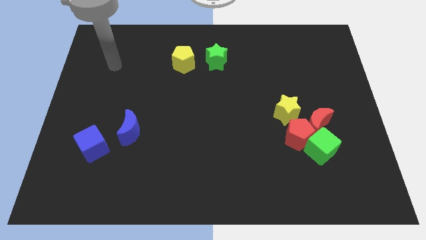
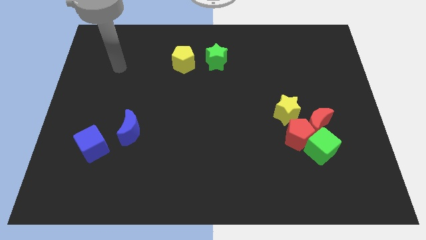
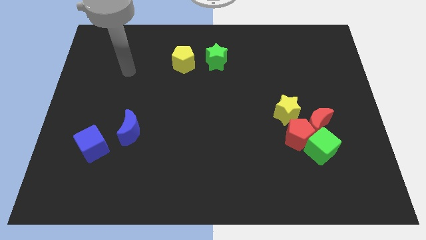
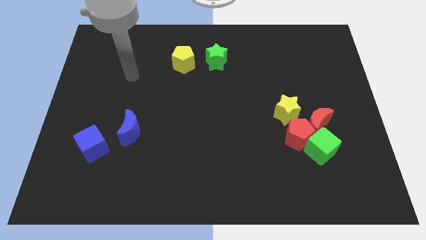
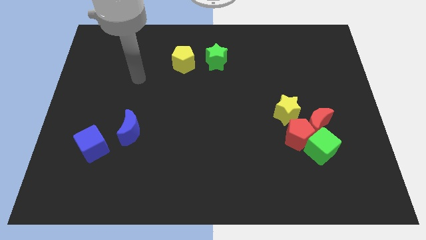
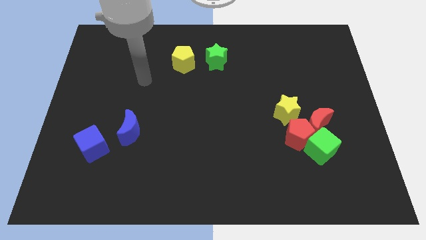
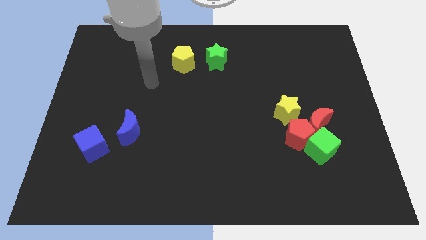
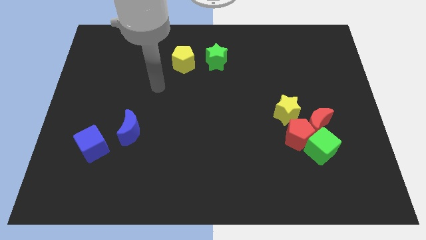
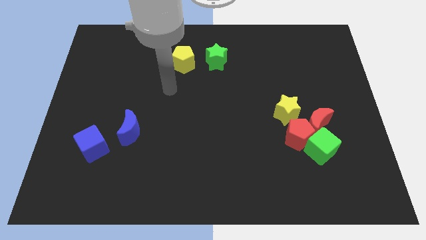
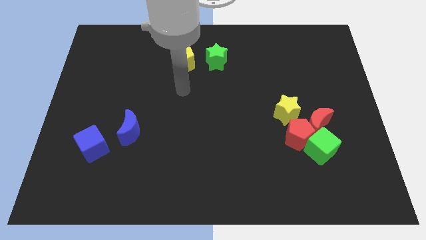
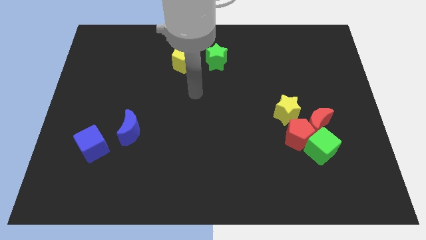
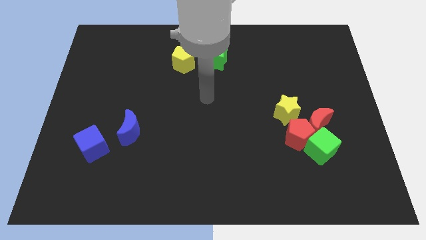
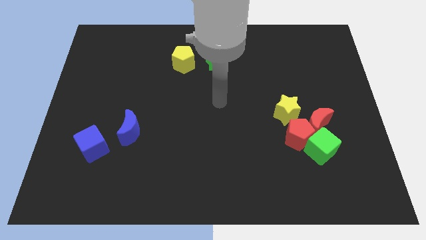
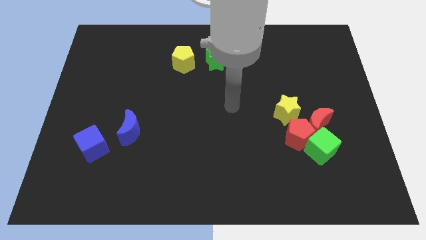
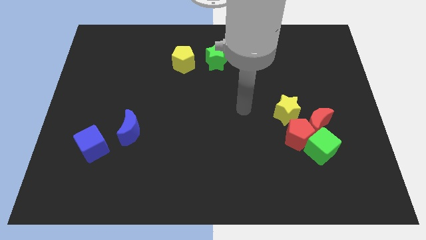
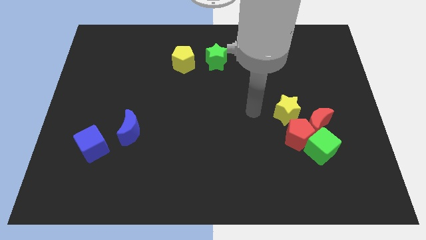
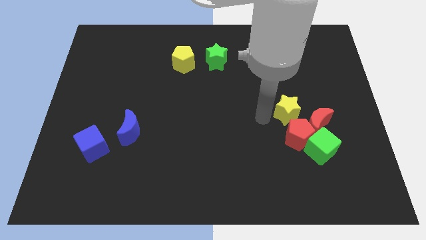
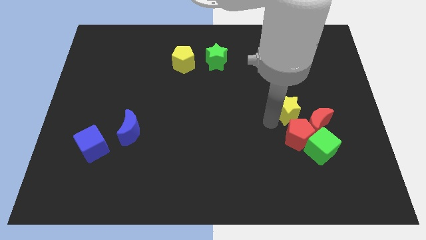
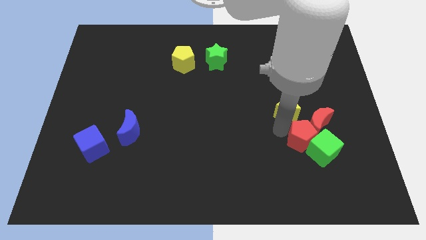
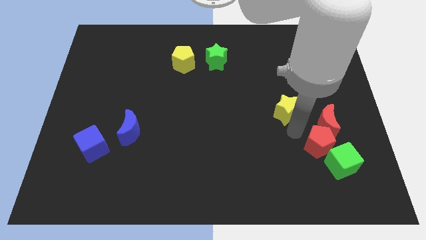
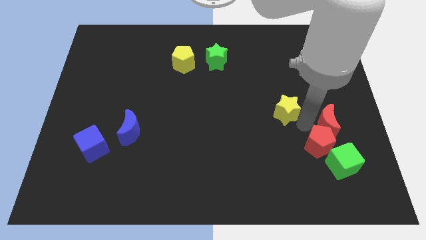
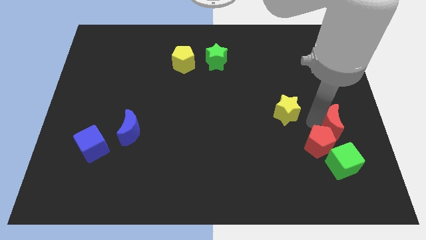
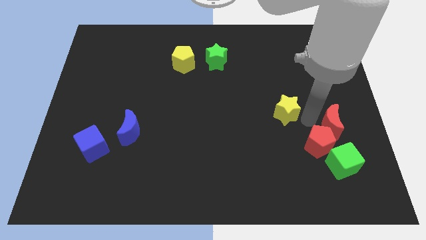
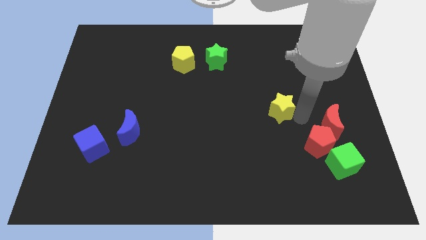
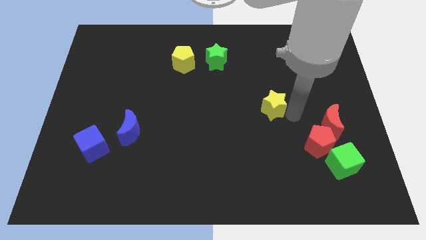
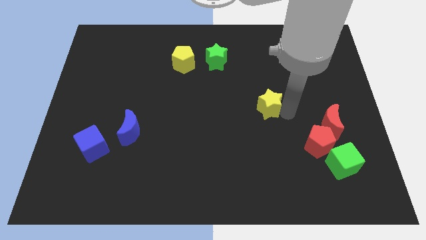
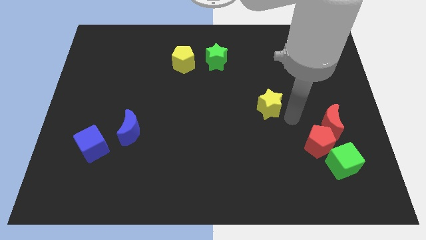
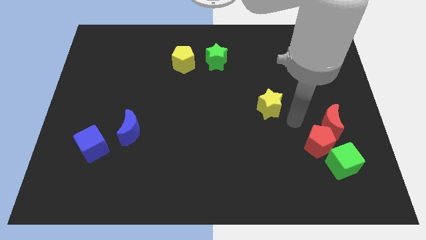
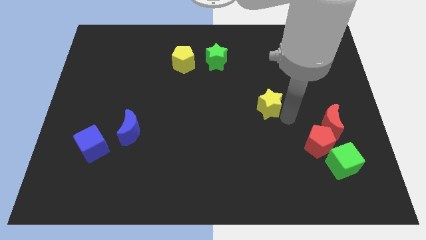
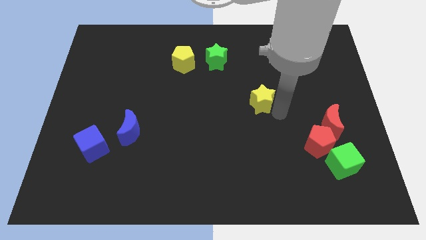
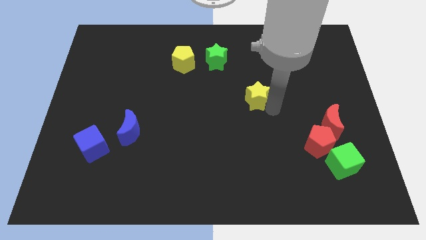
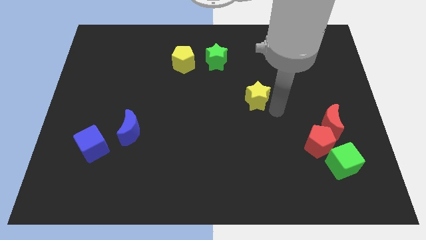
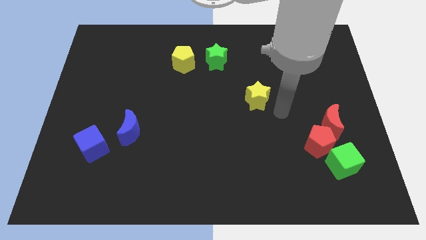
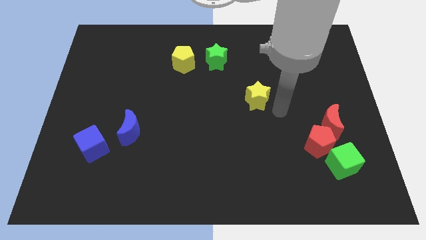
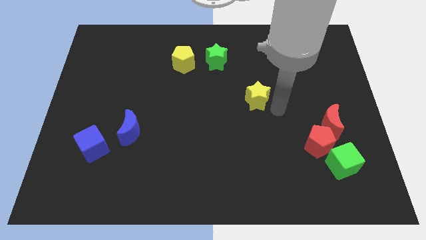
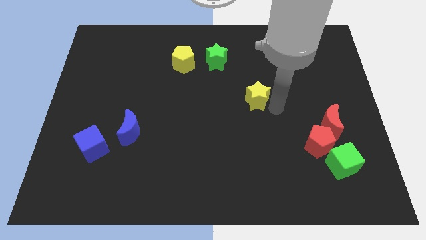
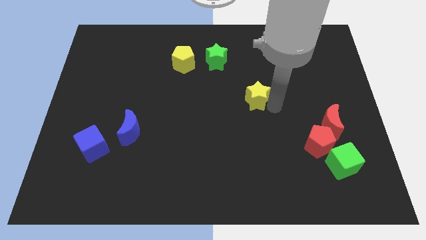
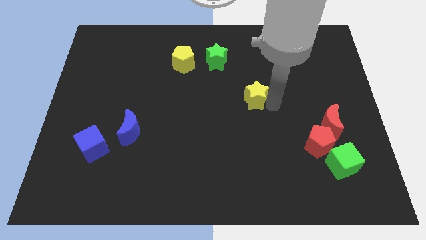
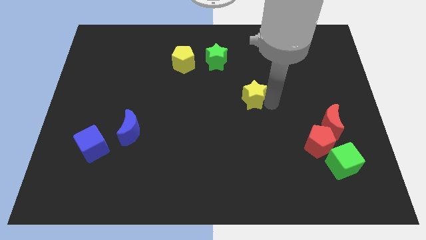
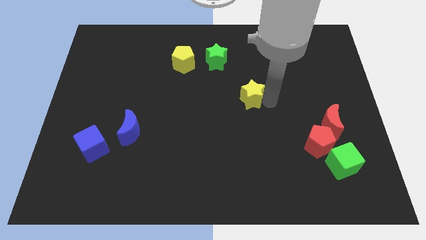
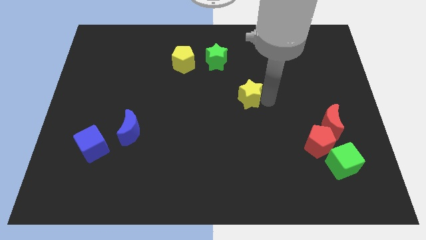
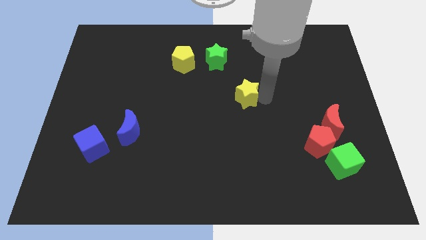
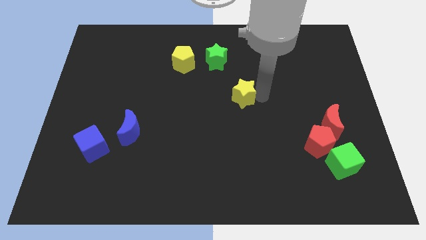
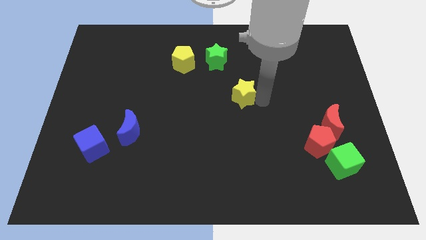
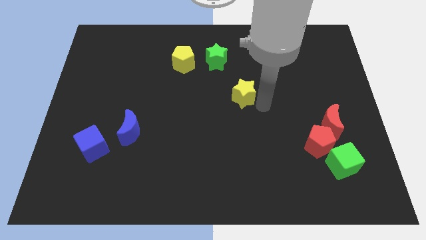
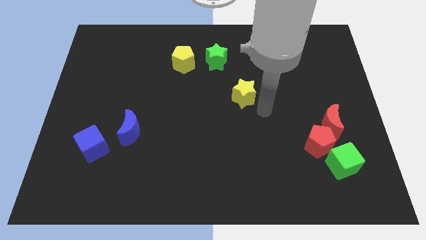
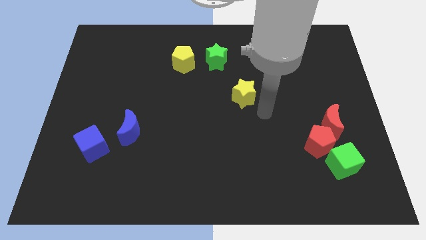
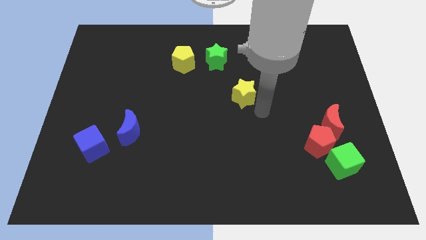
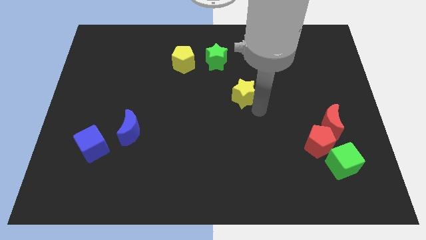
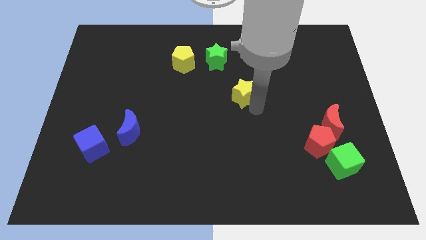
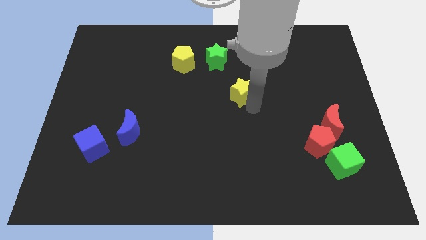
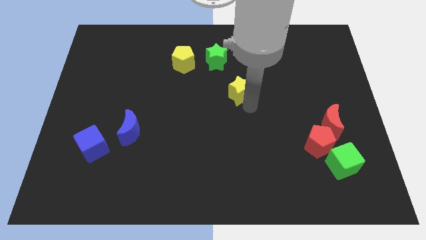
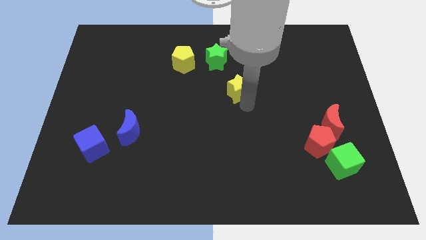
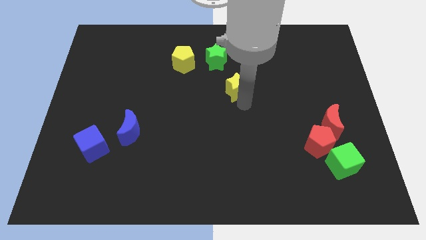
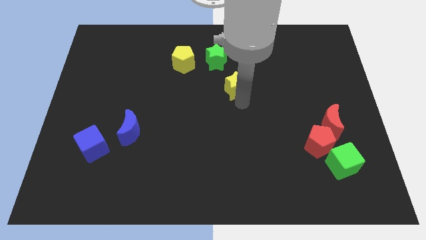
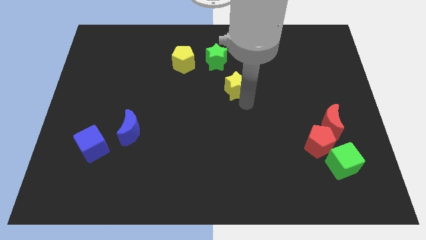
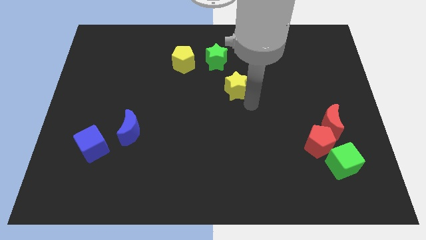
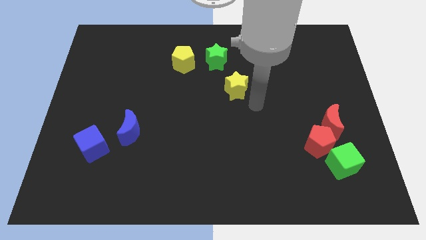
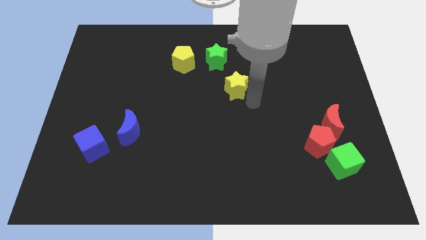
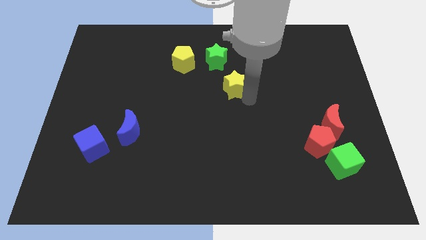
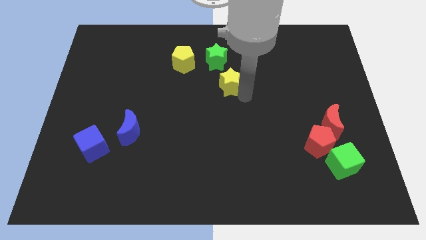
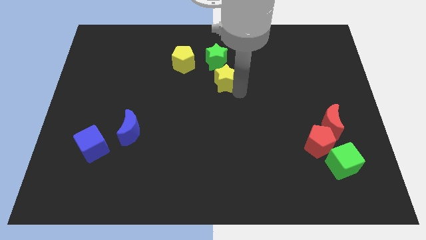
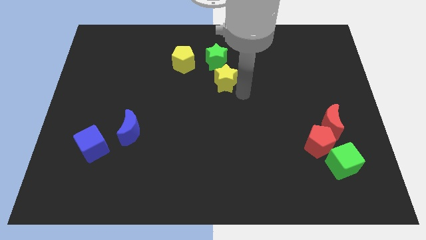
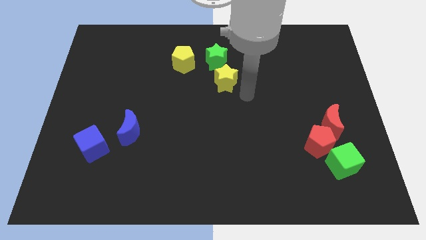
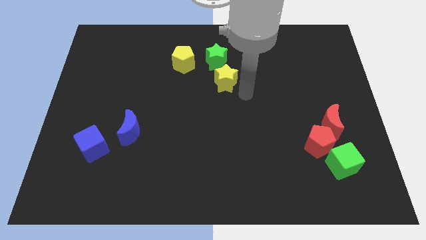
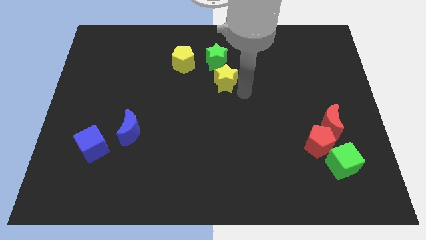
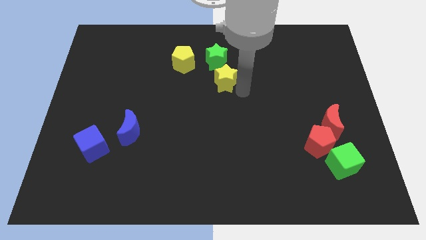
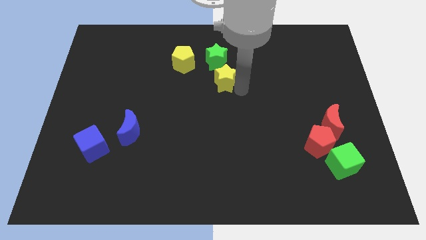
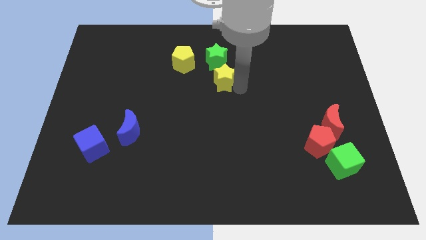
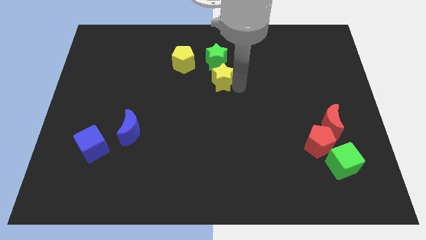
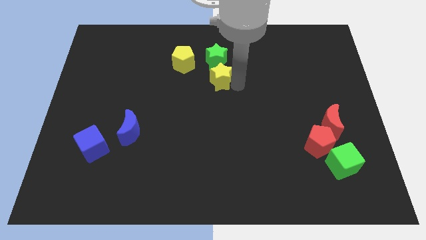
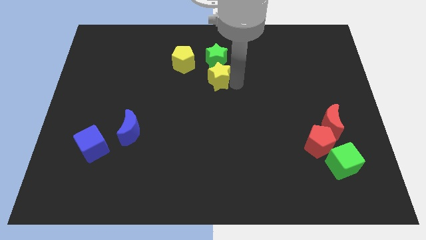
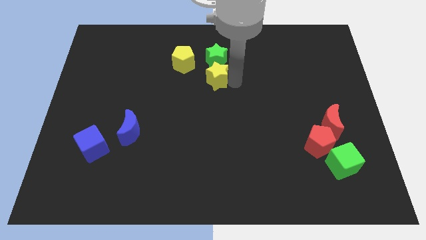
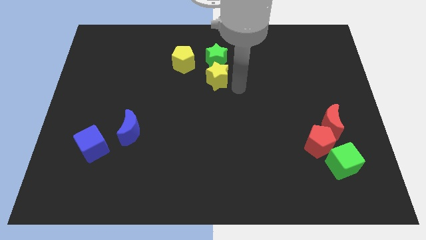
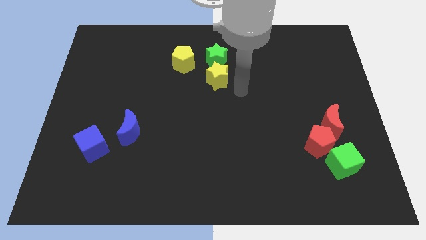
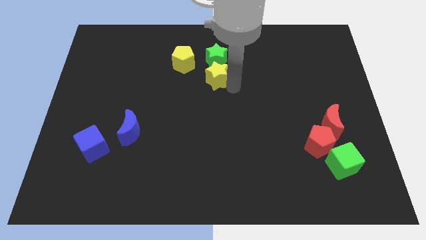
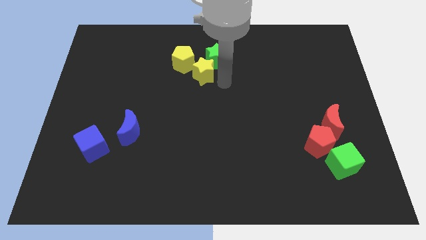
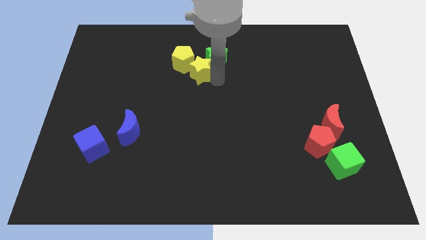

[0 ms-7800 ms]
push the yellow star next to the yellow pentagon
